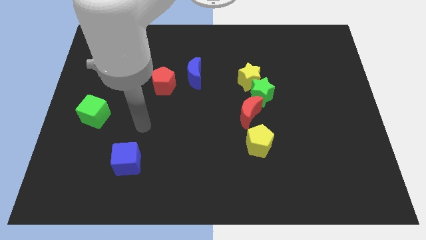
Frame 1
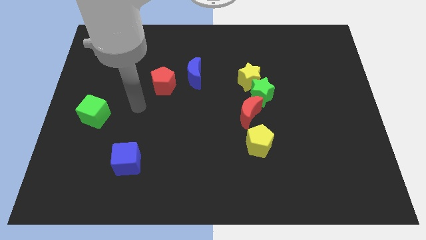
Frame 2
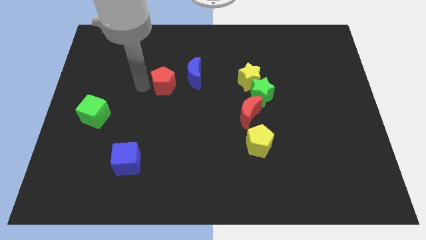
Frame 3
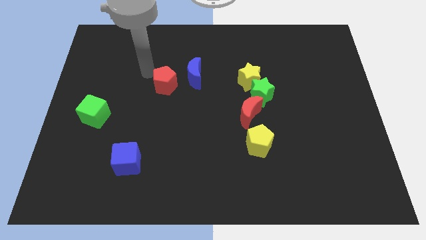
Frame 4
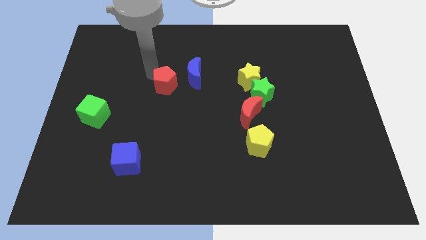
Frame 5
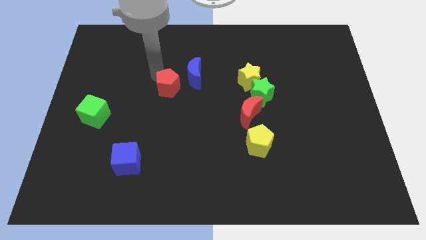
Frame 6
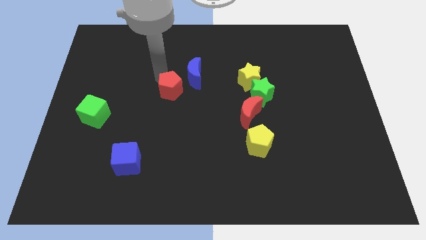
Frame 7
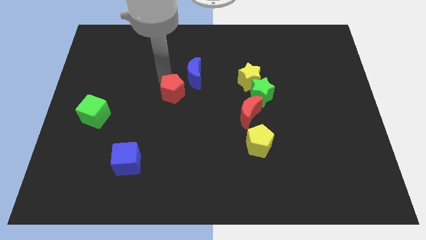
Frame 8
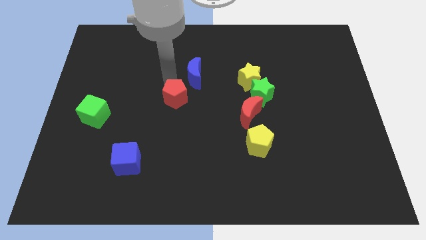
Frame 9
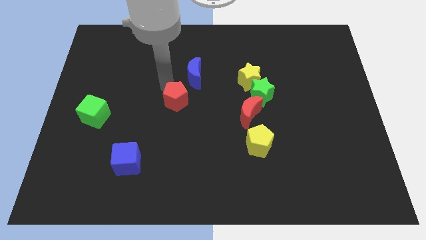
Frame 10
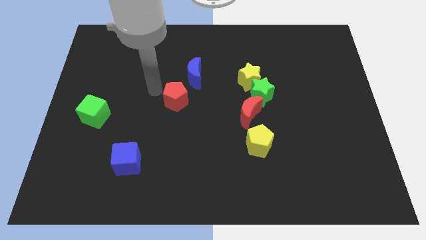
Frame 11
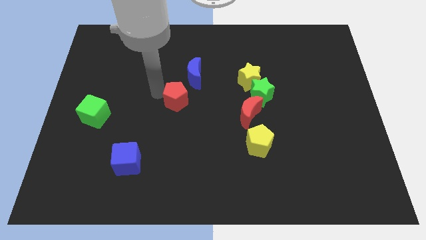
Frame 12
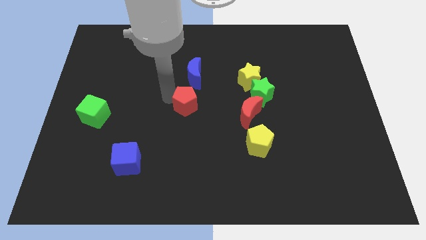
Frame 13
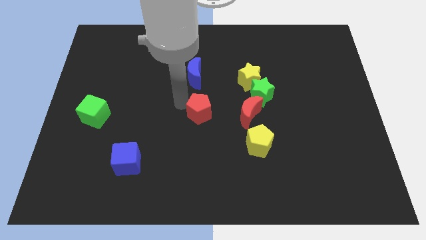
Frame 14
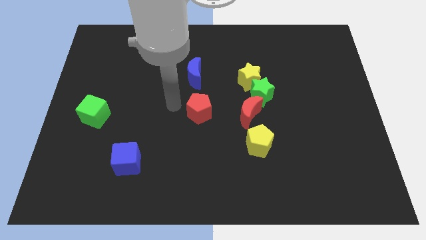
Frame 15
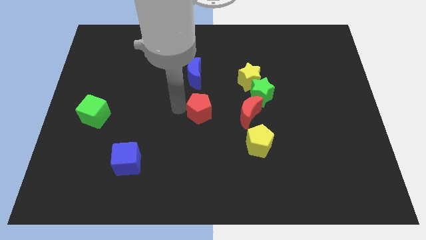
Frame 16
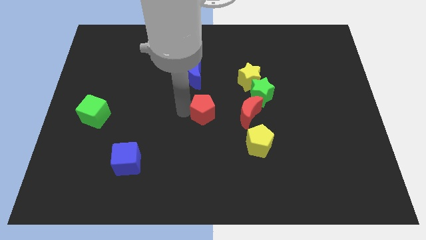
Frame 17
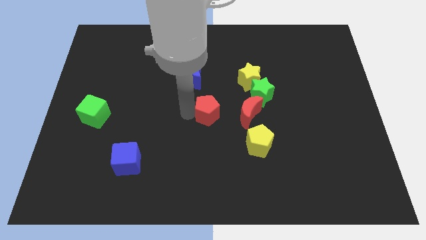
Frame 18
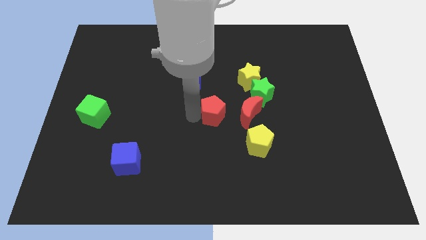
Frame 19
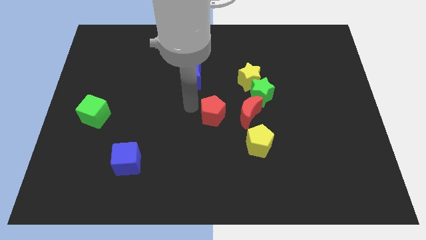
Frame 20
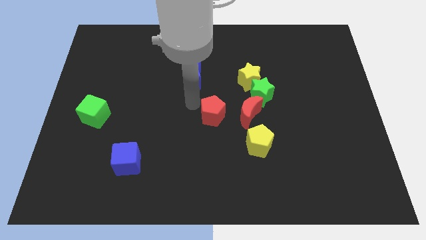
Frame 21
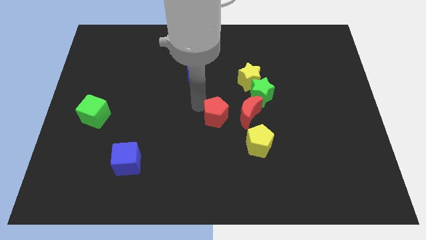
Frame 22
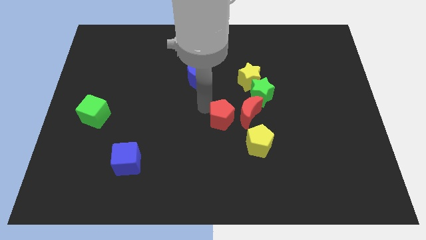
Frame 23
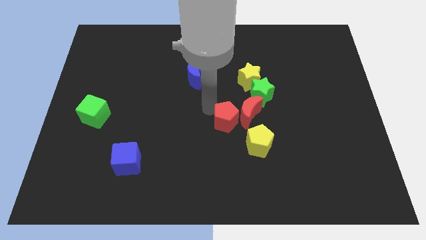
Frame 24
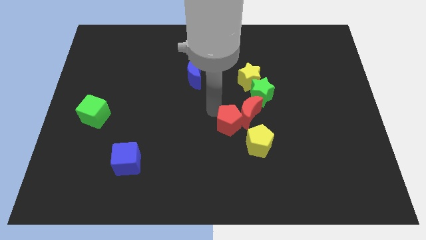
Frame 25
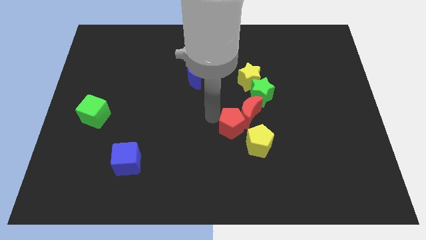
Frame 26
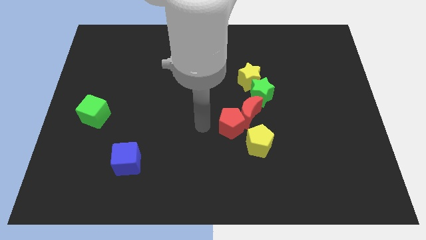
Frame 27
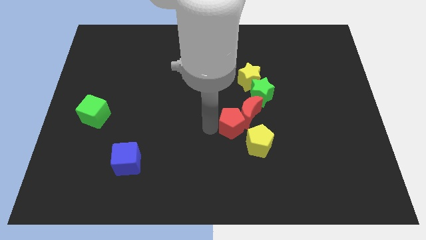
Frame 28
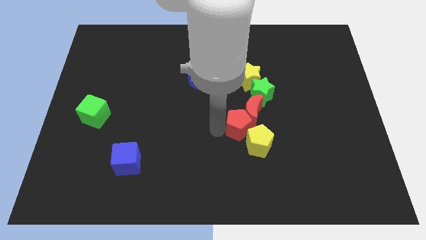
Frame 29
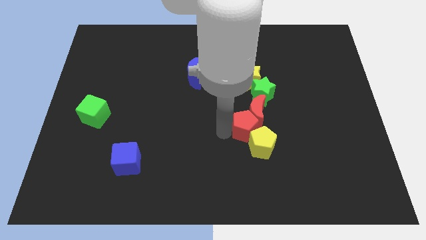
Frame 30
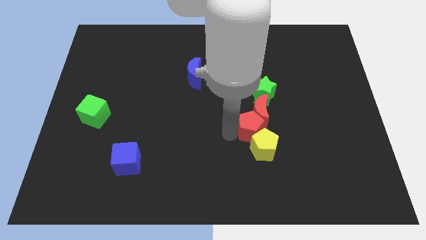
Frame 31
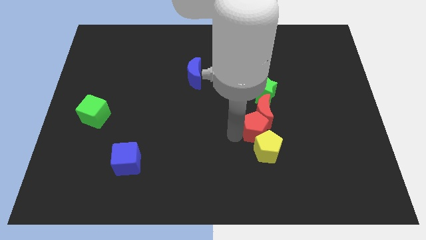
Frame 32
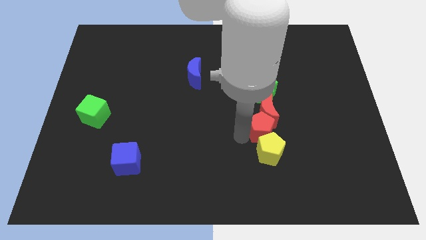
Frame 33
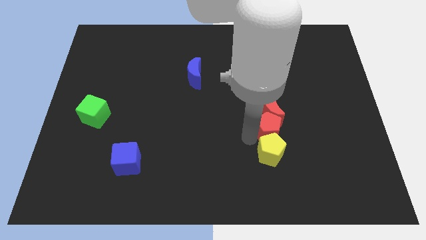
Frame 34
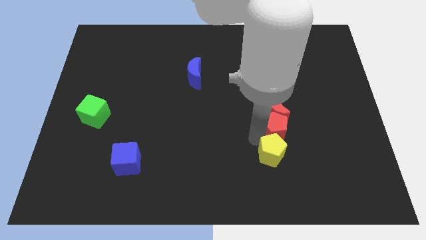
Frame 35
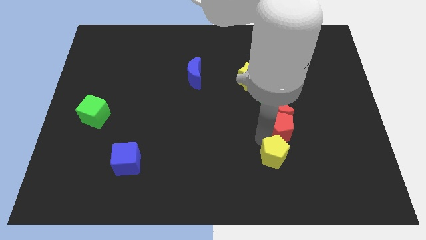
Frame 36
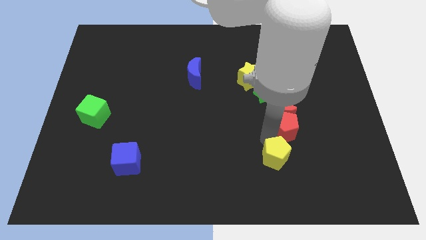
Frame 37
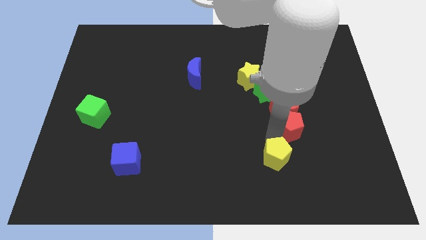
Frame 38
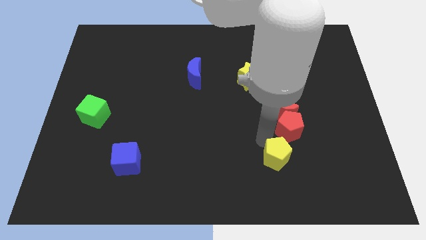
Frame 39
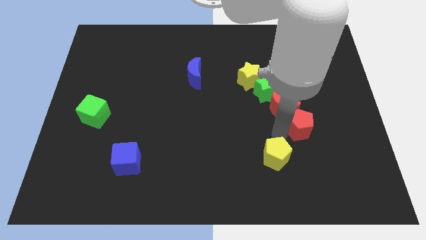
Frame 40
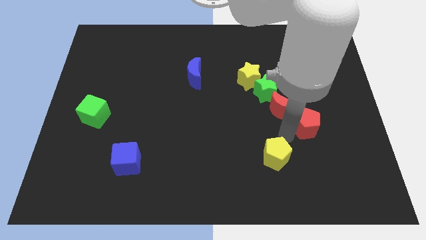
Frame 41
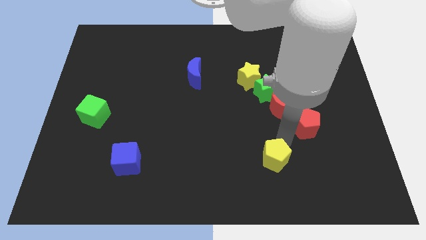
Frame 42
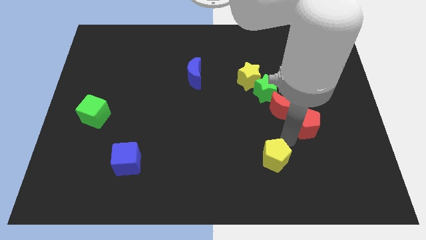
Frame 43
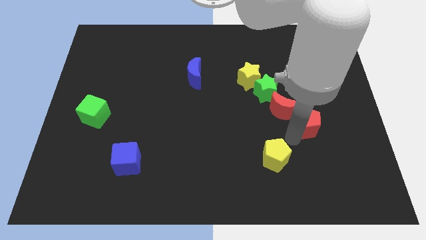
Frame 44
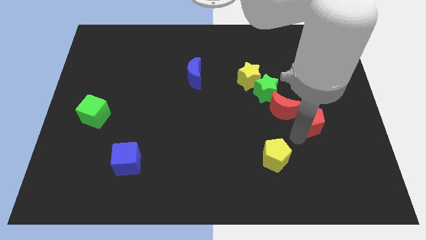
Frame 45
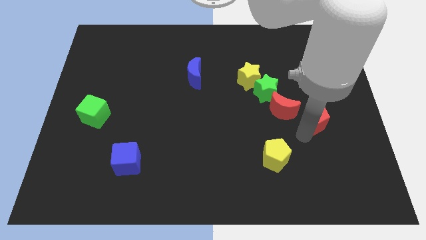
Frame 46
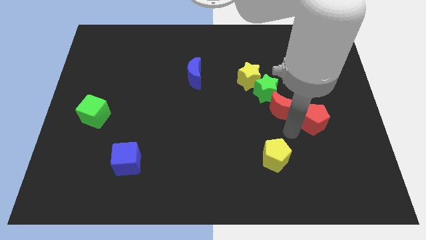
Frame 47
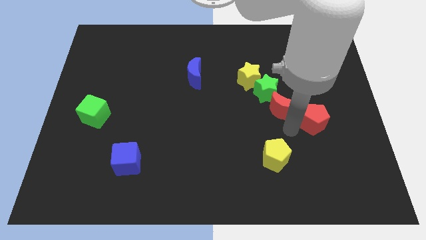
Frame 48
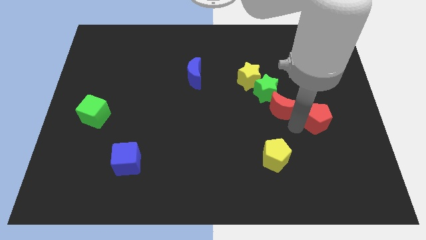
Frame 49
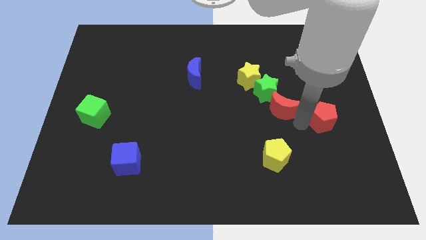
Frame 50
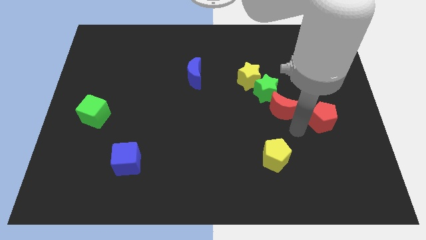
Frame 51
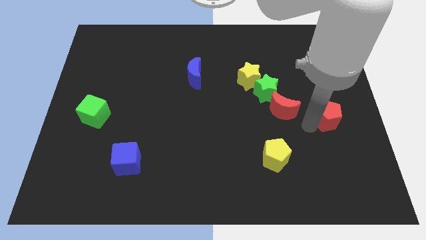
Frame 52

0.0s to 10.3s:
put the red pentagon to the right side

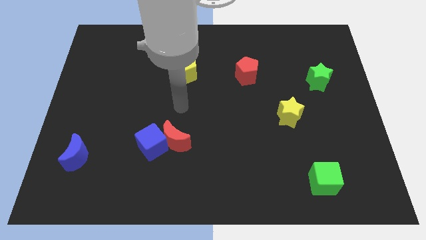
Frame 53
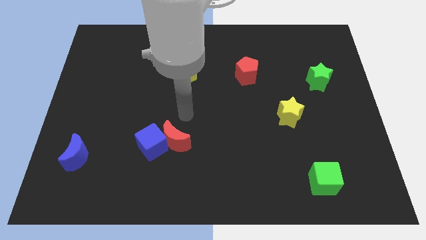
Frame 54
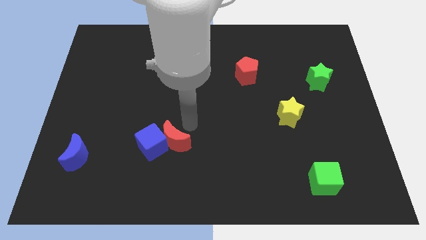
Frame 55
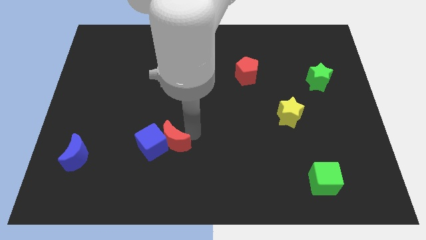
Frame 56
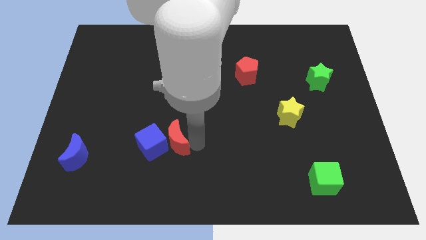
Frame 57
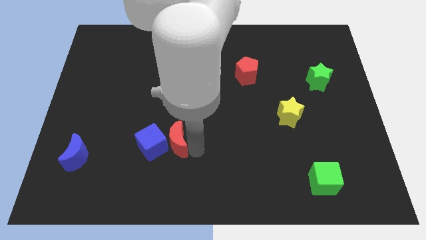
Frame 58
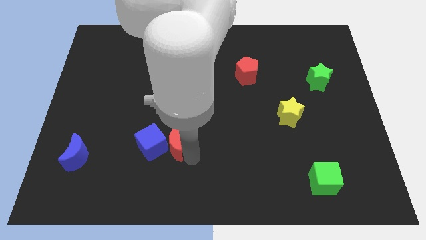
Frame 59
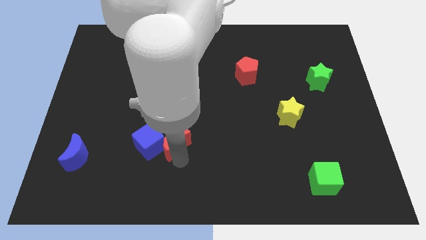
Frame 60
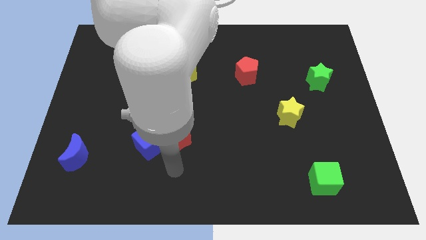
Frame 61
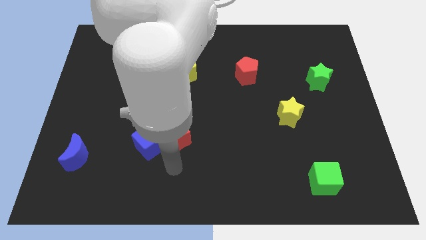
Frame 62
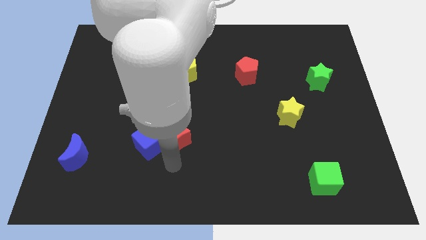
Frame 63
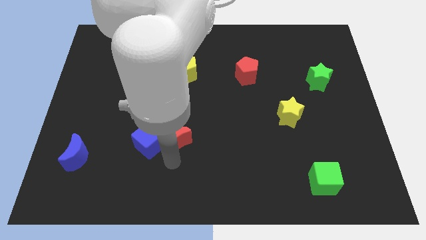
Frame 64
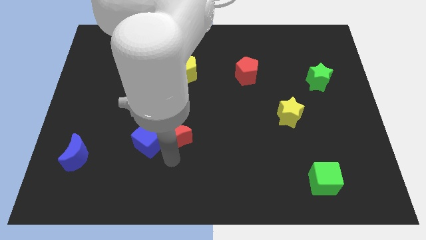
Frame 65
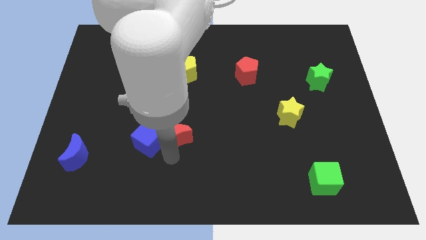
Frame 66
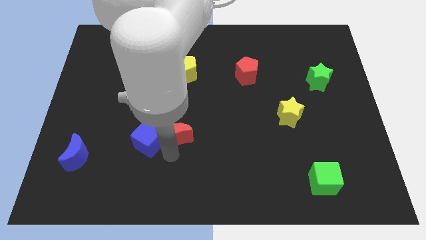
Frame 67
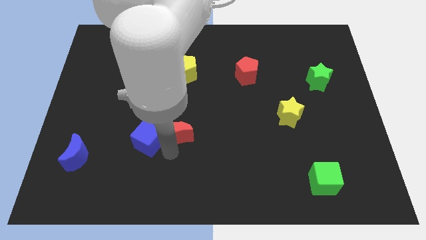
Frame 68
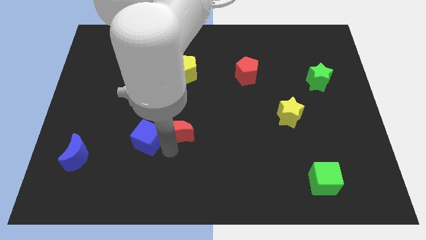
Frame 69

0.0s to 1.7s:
push the red moon to the center of the board
